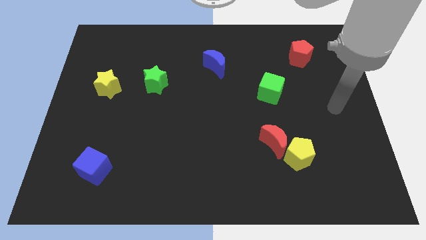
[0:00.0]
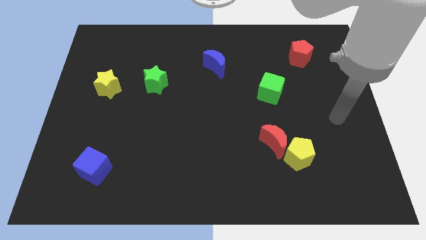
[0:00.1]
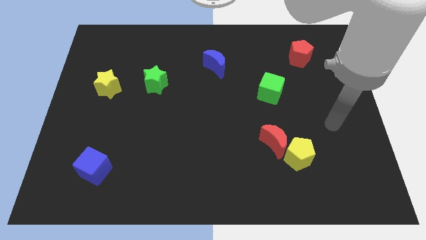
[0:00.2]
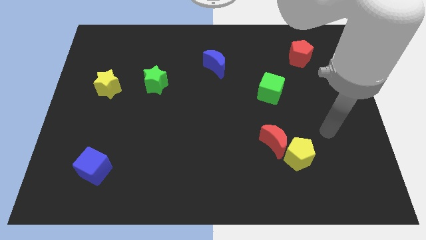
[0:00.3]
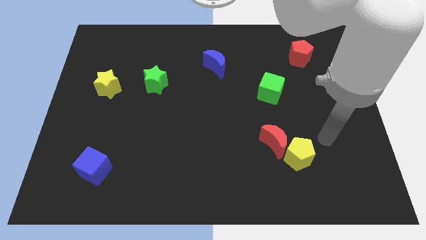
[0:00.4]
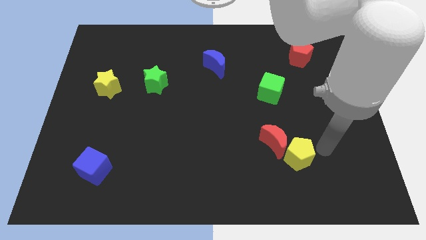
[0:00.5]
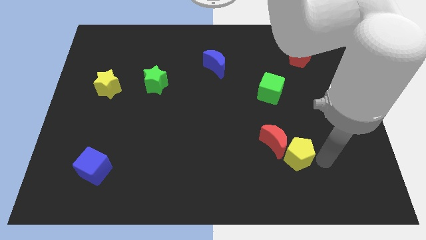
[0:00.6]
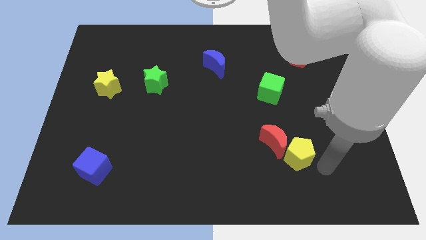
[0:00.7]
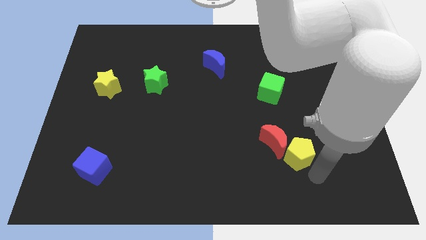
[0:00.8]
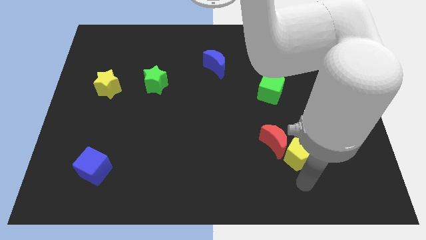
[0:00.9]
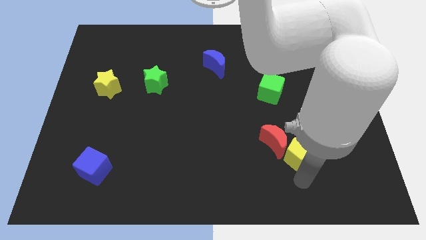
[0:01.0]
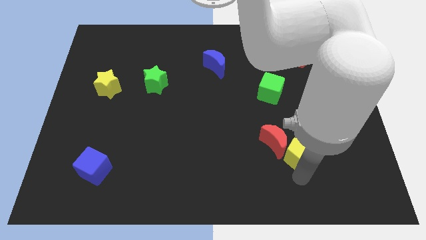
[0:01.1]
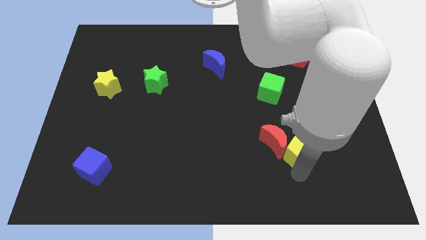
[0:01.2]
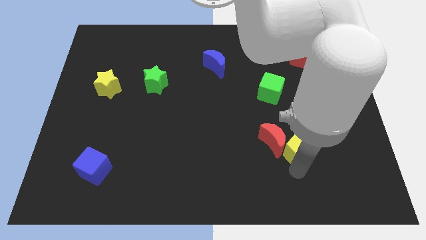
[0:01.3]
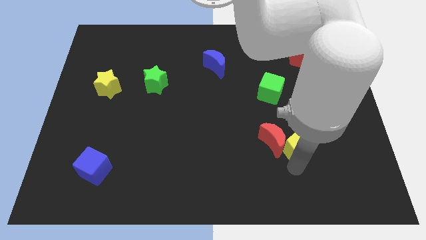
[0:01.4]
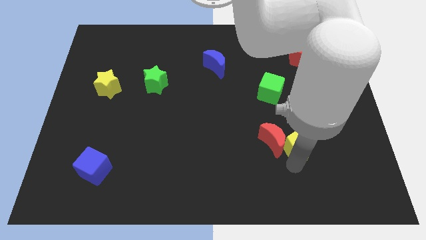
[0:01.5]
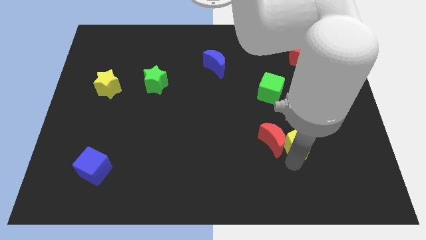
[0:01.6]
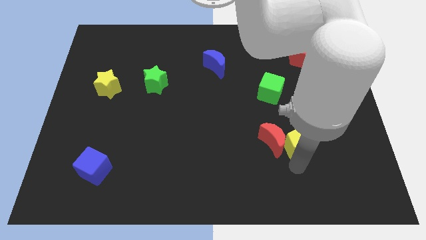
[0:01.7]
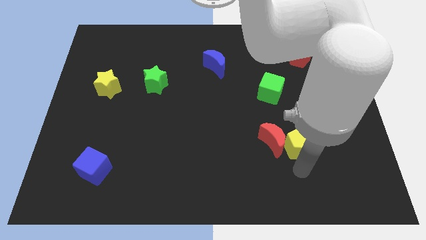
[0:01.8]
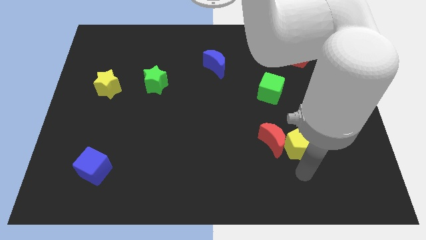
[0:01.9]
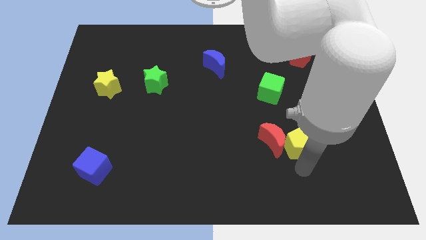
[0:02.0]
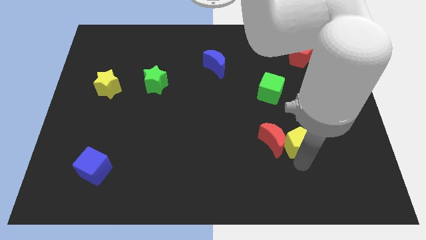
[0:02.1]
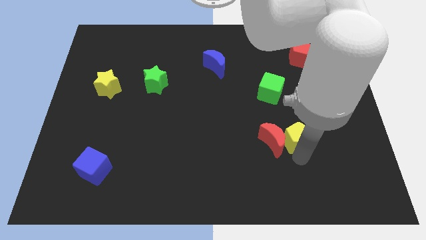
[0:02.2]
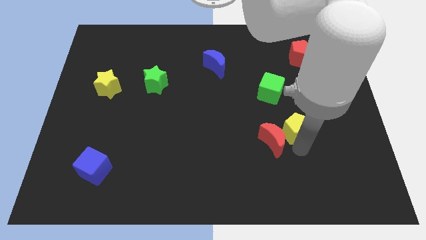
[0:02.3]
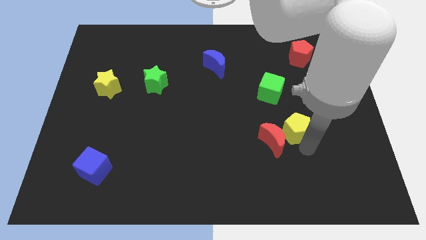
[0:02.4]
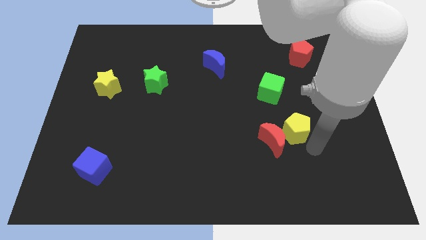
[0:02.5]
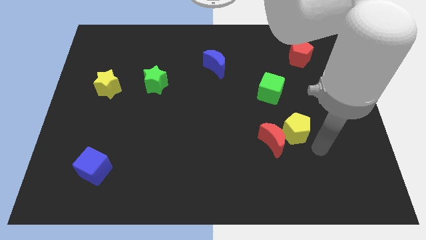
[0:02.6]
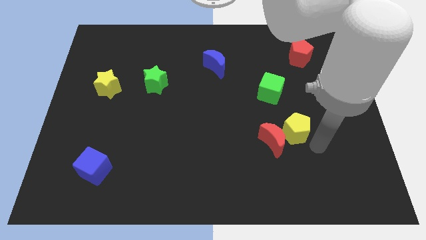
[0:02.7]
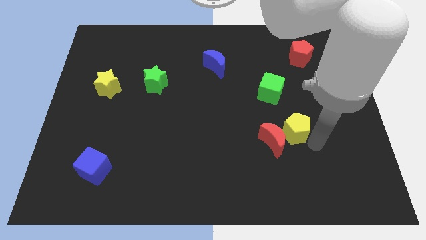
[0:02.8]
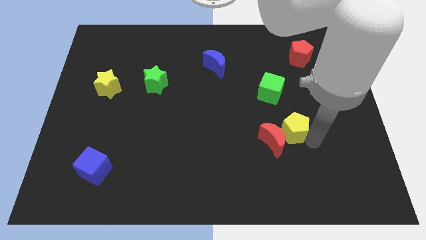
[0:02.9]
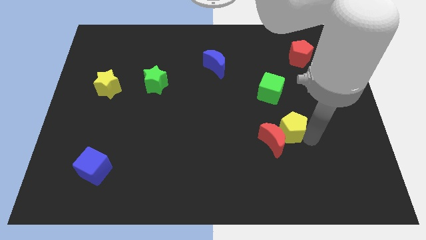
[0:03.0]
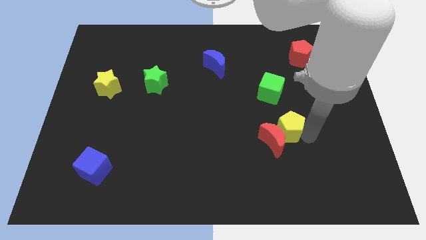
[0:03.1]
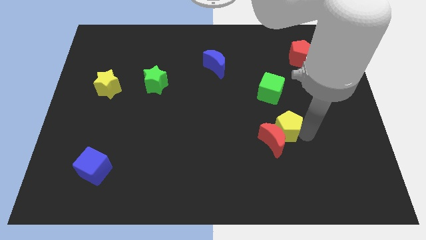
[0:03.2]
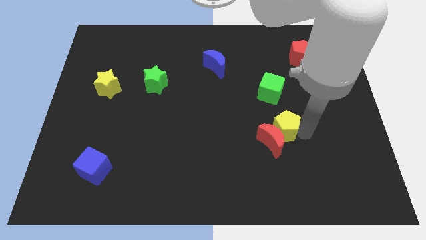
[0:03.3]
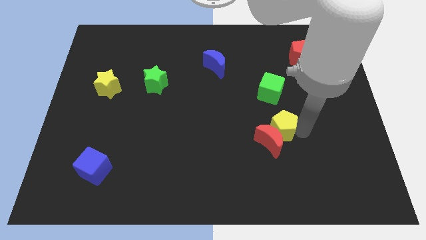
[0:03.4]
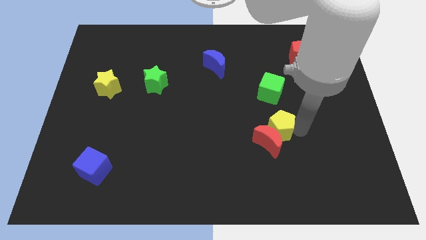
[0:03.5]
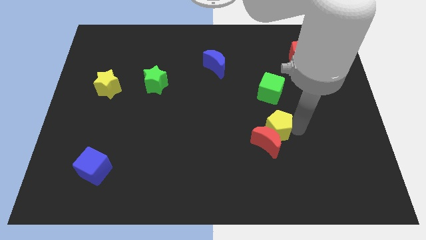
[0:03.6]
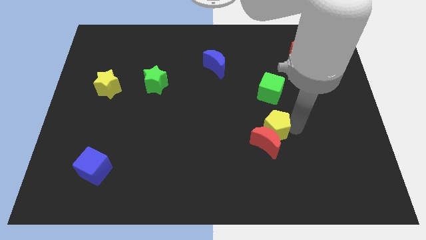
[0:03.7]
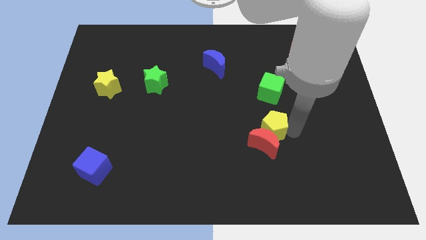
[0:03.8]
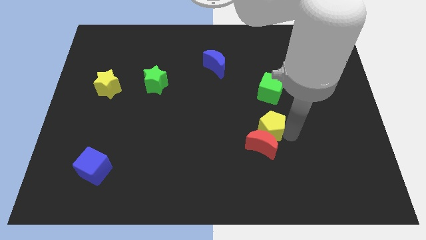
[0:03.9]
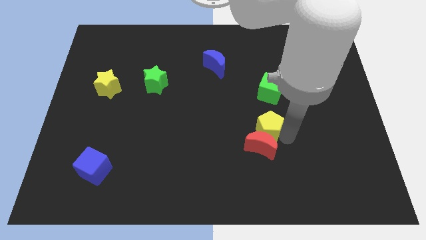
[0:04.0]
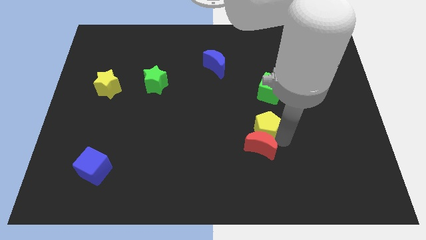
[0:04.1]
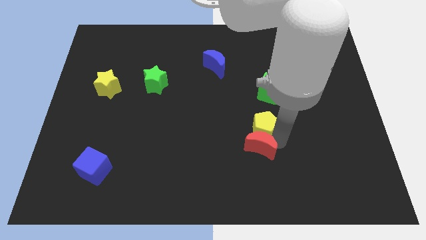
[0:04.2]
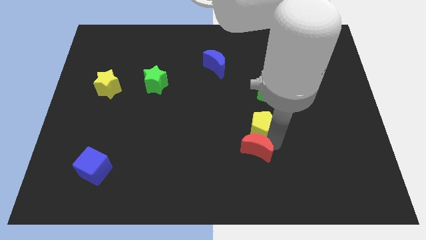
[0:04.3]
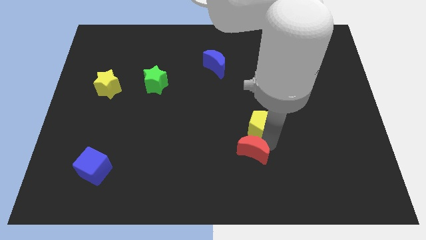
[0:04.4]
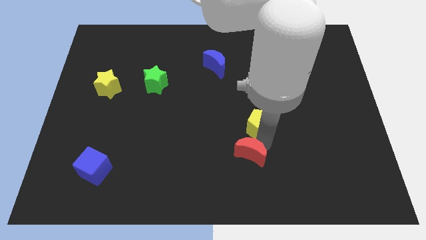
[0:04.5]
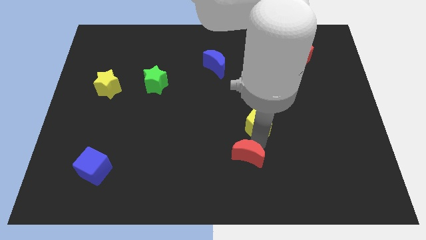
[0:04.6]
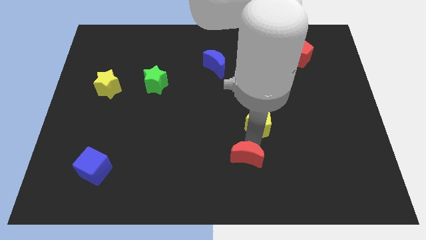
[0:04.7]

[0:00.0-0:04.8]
put the yellow pentagon diagonally down and to the left of the green cube

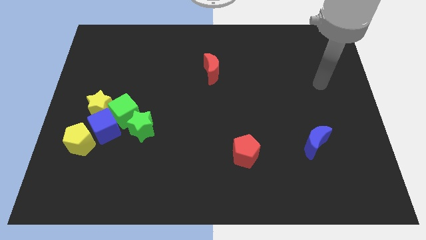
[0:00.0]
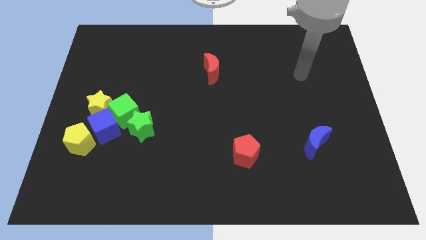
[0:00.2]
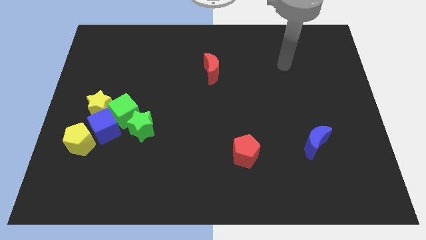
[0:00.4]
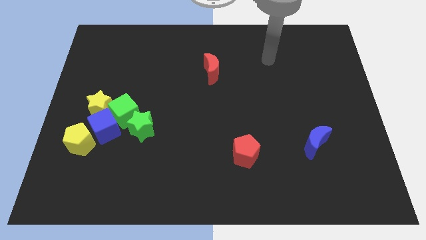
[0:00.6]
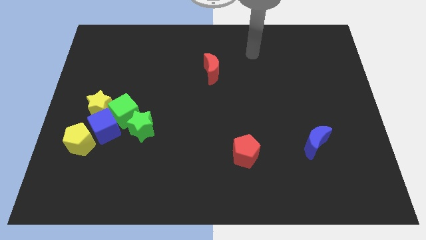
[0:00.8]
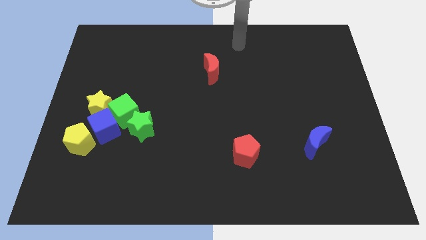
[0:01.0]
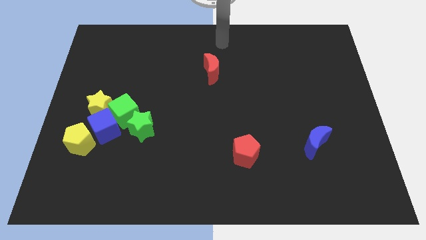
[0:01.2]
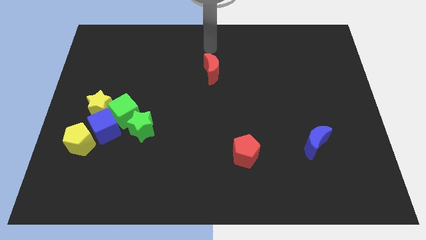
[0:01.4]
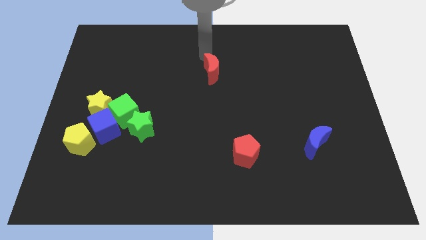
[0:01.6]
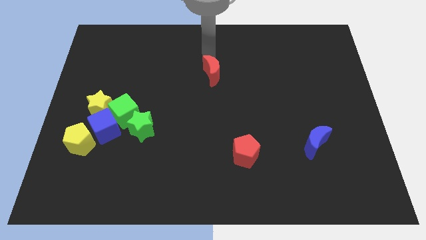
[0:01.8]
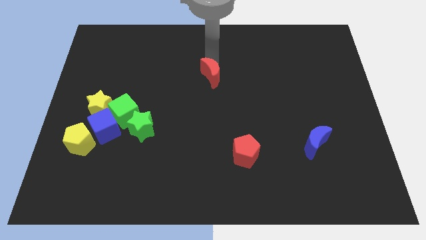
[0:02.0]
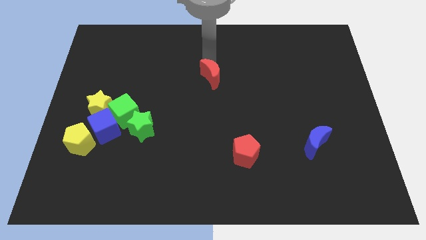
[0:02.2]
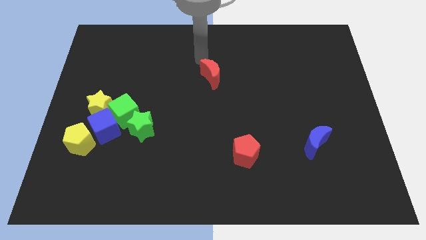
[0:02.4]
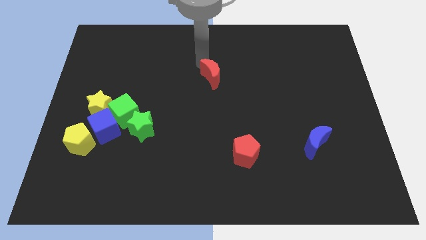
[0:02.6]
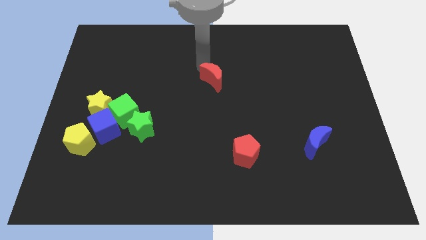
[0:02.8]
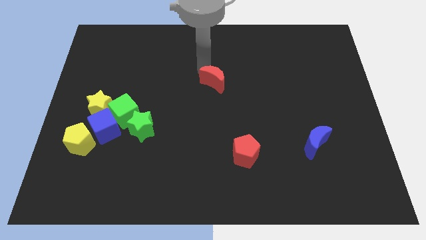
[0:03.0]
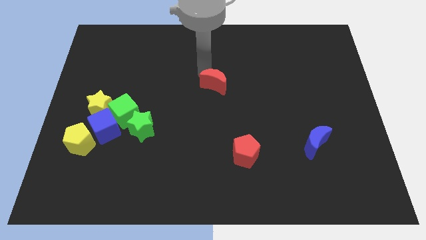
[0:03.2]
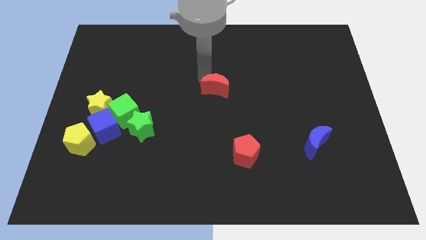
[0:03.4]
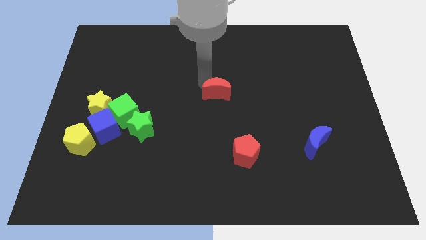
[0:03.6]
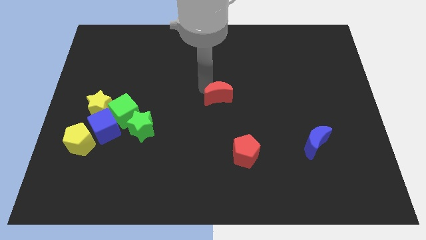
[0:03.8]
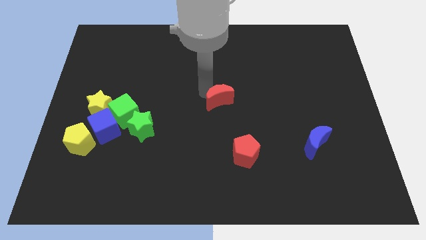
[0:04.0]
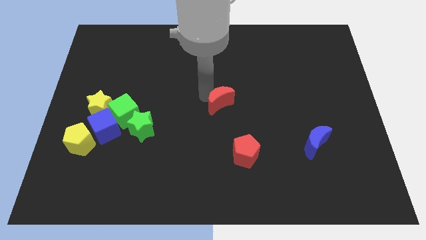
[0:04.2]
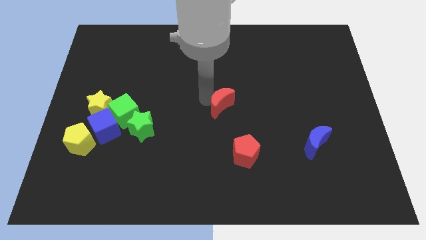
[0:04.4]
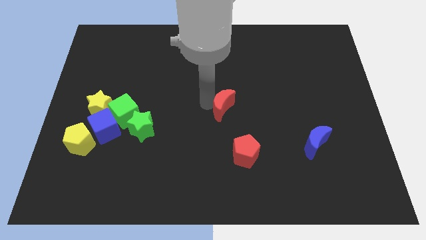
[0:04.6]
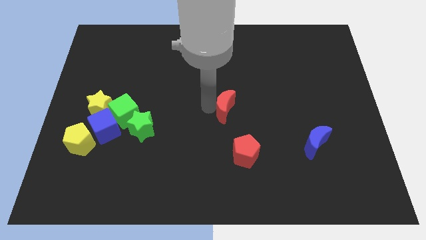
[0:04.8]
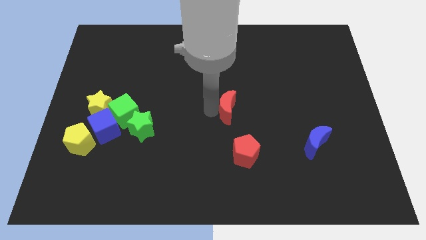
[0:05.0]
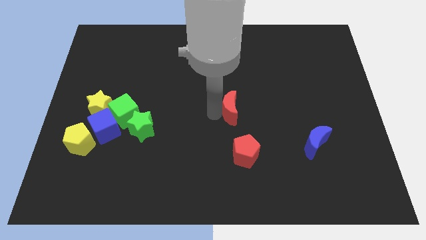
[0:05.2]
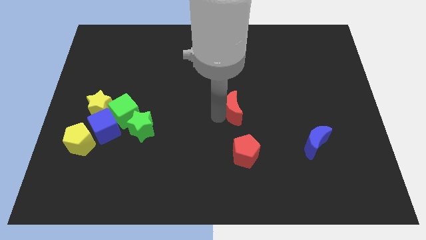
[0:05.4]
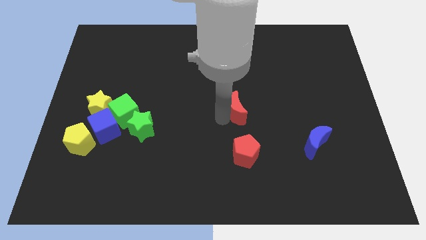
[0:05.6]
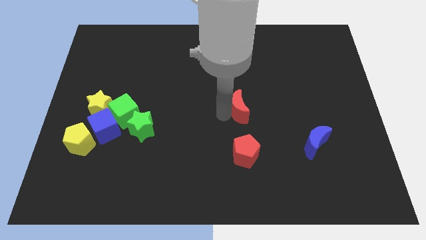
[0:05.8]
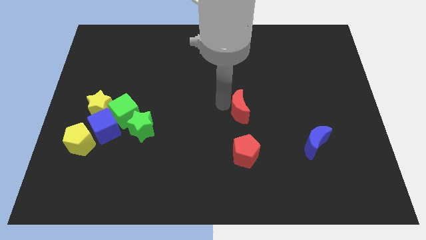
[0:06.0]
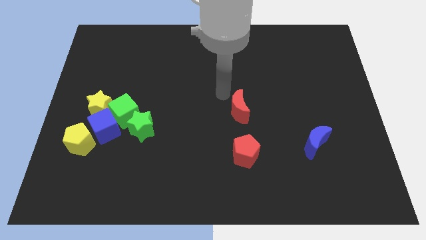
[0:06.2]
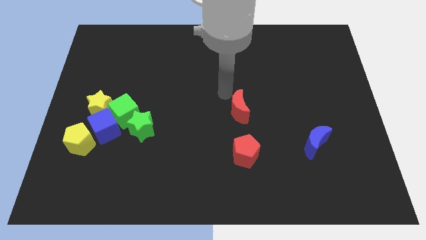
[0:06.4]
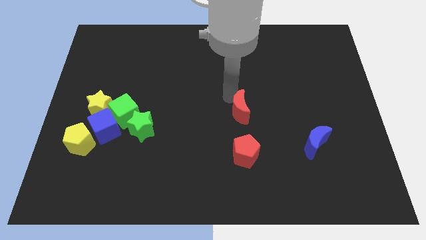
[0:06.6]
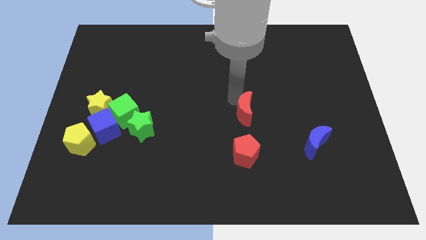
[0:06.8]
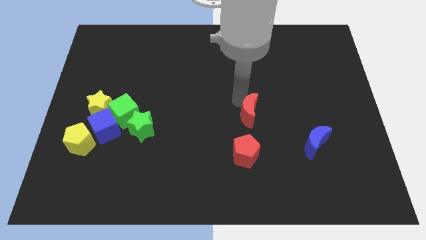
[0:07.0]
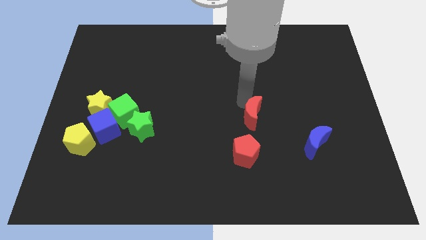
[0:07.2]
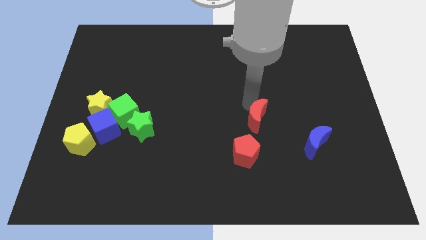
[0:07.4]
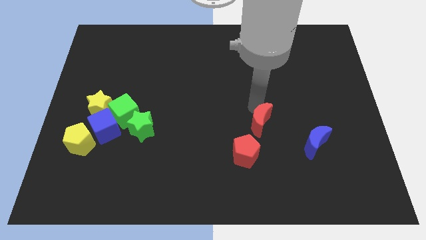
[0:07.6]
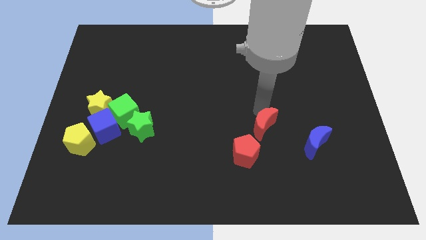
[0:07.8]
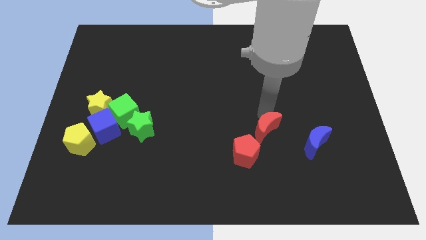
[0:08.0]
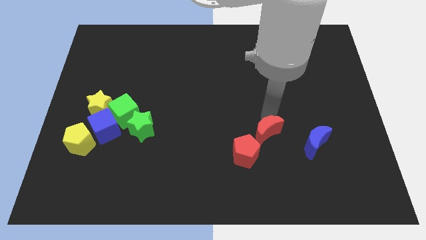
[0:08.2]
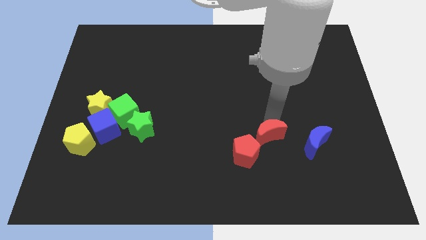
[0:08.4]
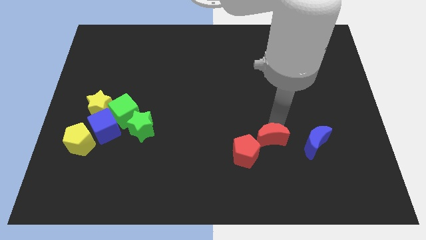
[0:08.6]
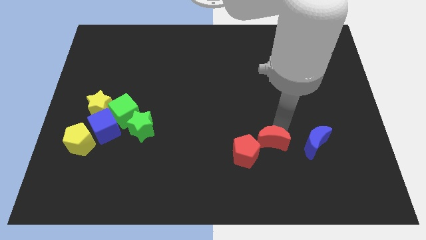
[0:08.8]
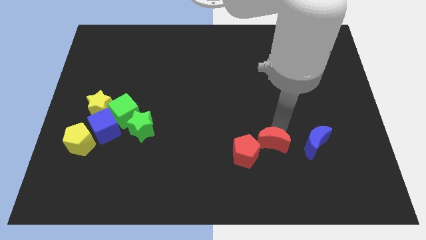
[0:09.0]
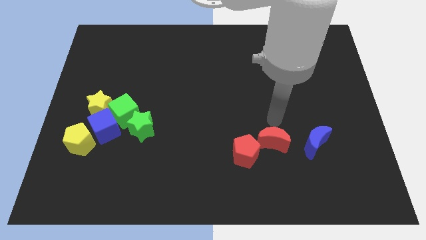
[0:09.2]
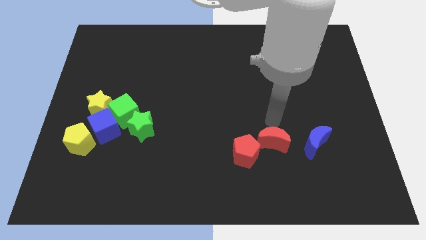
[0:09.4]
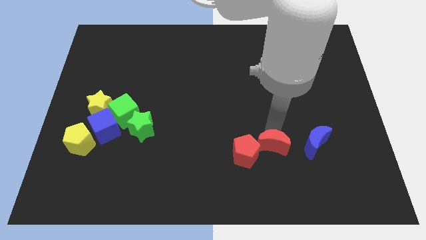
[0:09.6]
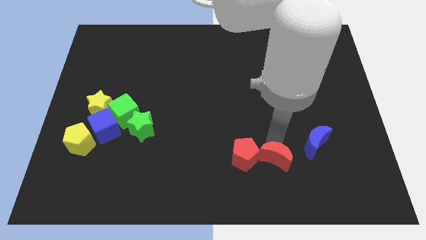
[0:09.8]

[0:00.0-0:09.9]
push the red moon to the bottom right side of the red pentagon
